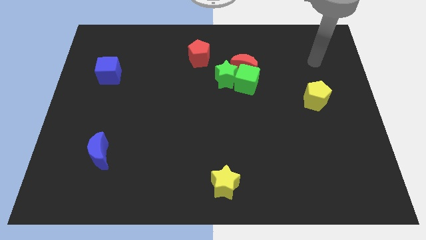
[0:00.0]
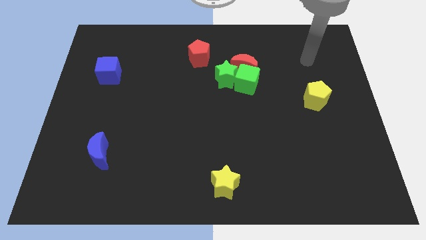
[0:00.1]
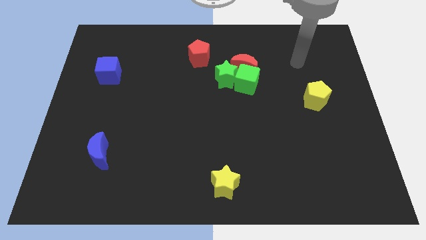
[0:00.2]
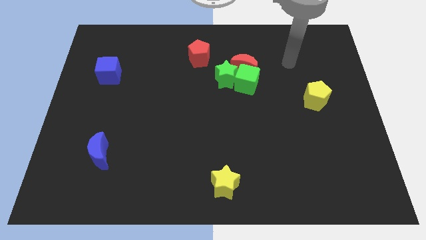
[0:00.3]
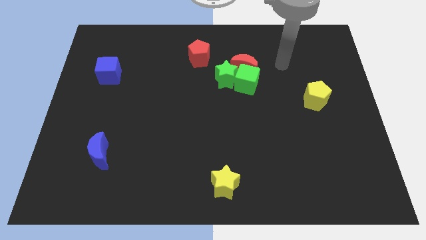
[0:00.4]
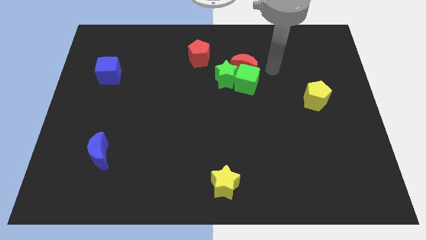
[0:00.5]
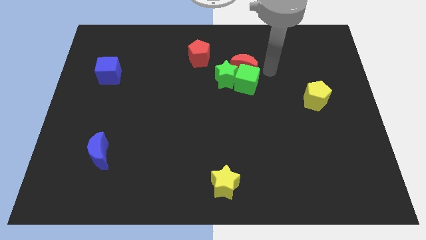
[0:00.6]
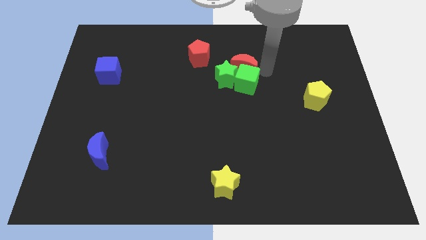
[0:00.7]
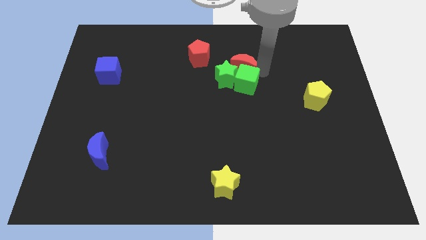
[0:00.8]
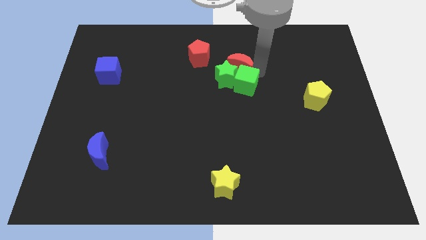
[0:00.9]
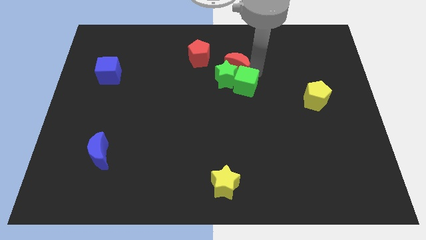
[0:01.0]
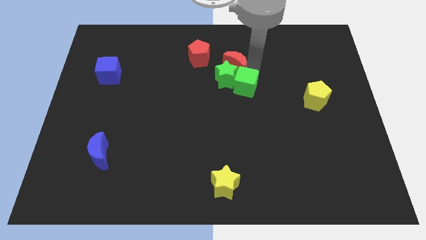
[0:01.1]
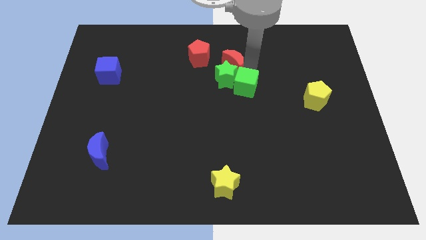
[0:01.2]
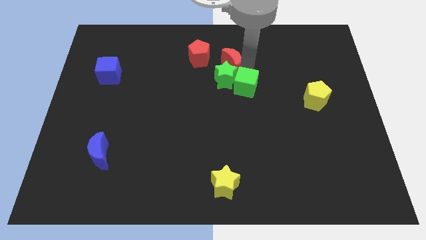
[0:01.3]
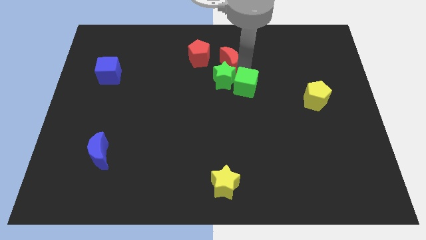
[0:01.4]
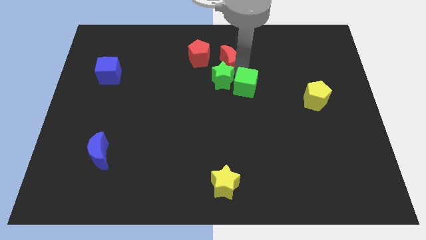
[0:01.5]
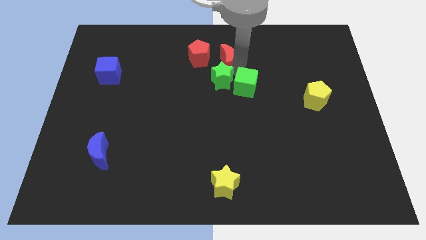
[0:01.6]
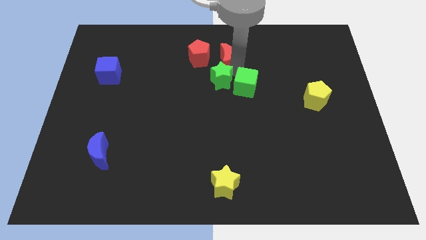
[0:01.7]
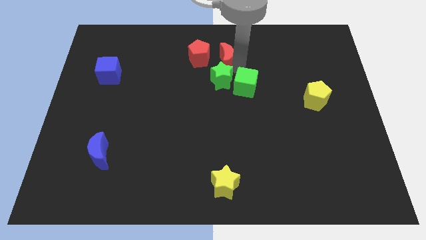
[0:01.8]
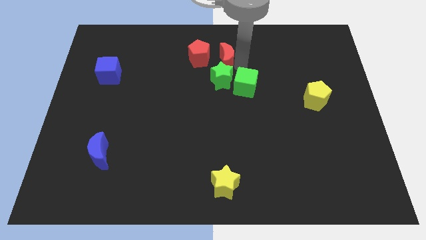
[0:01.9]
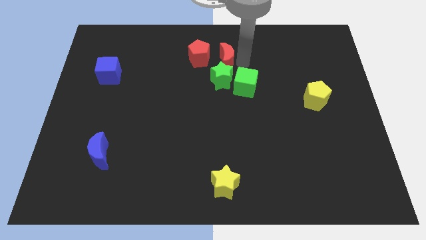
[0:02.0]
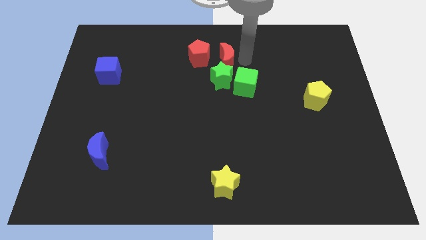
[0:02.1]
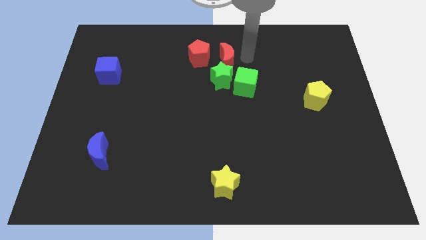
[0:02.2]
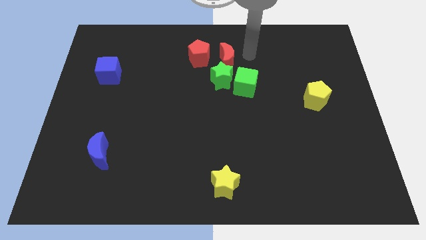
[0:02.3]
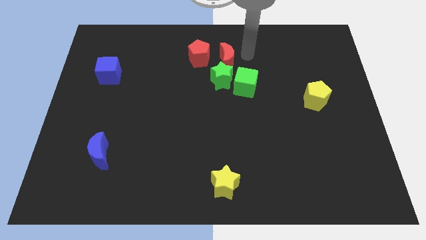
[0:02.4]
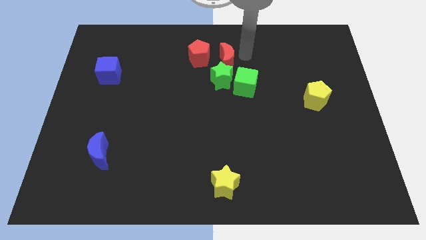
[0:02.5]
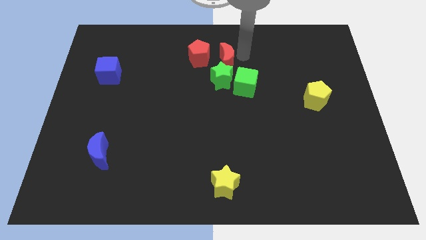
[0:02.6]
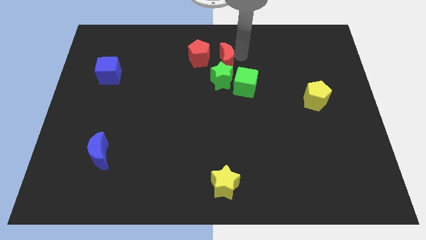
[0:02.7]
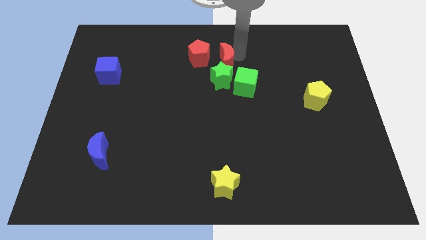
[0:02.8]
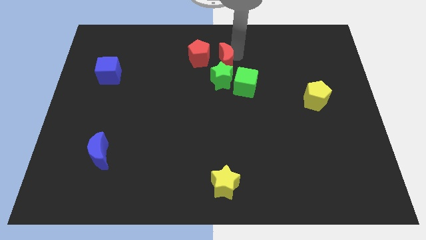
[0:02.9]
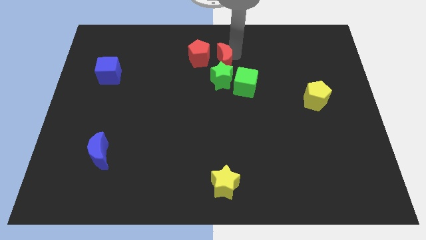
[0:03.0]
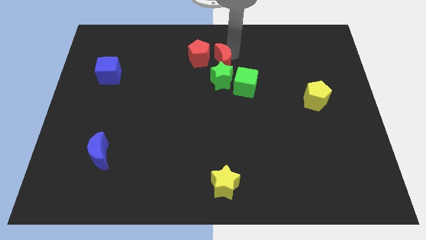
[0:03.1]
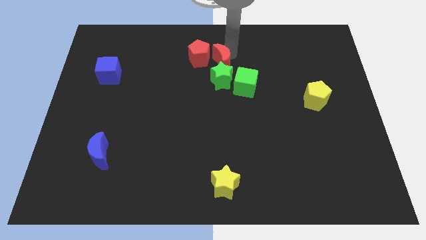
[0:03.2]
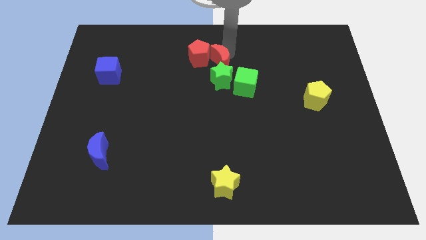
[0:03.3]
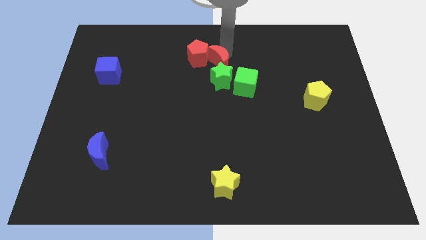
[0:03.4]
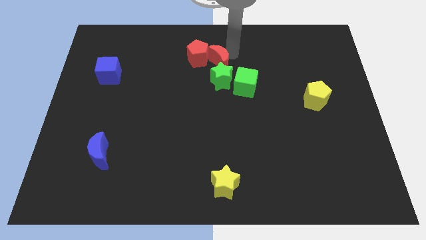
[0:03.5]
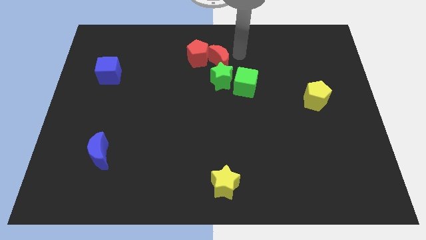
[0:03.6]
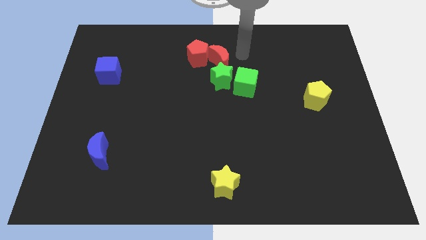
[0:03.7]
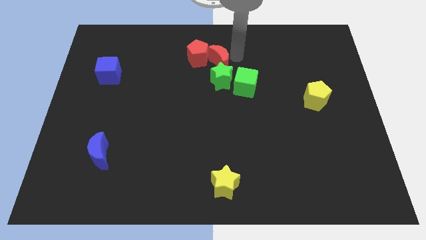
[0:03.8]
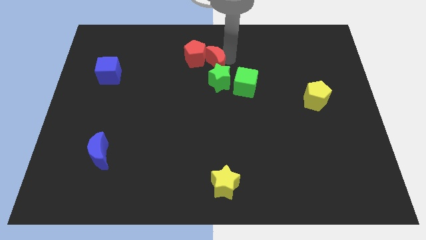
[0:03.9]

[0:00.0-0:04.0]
slightly slide the red moon left

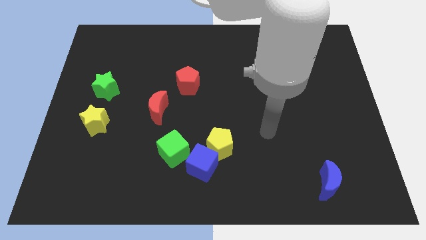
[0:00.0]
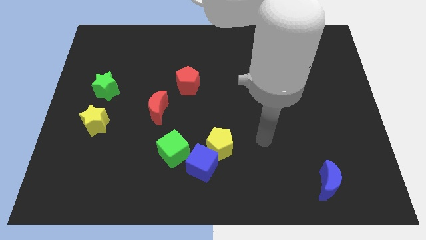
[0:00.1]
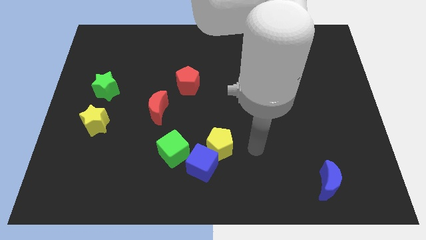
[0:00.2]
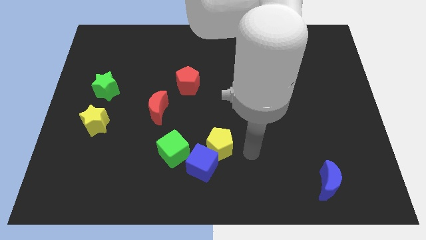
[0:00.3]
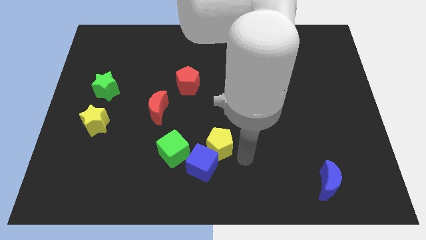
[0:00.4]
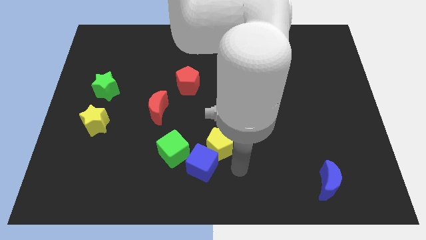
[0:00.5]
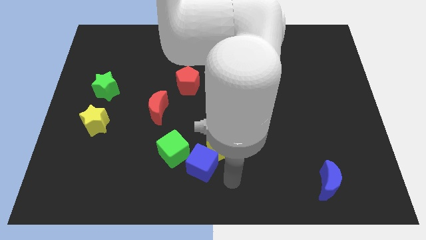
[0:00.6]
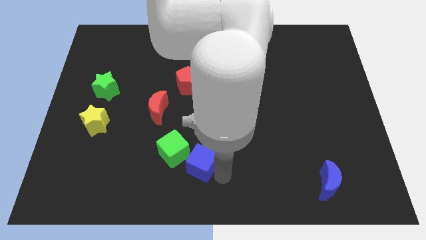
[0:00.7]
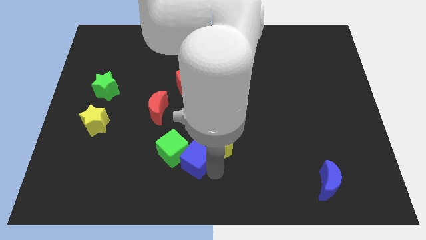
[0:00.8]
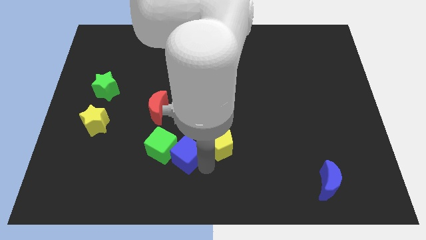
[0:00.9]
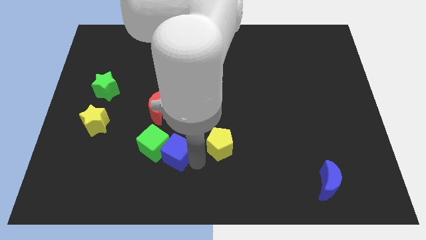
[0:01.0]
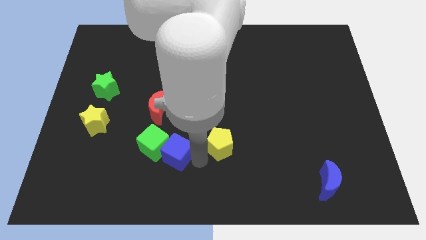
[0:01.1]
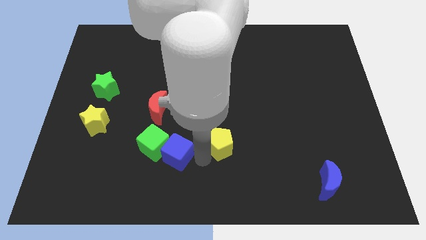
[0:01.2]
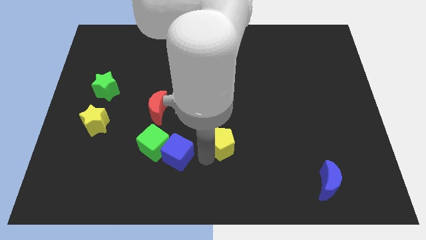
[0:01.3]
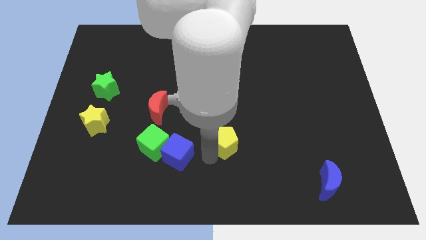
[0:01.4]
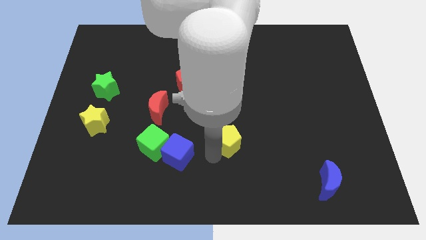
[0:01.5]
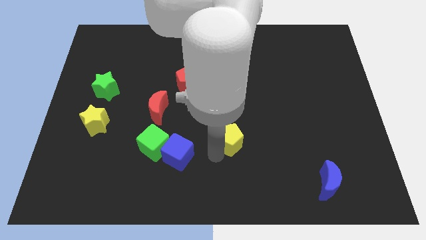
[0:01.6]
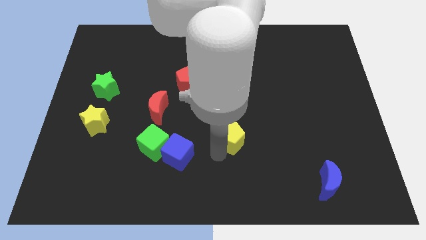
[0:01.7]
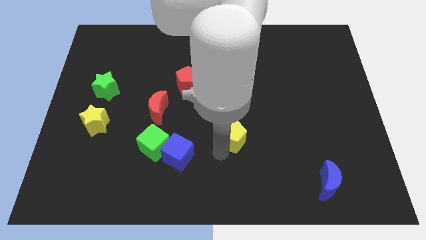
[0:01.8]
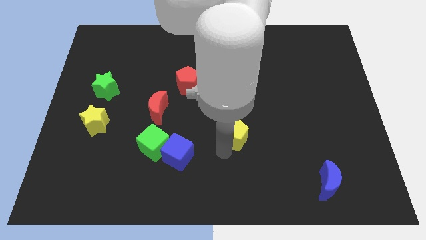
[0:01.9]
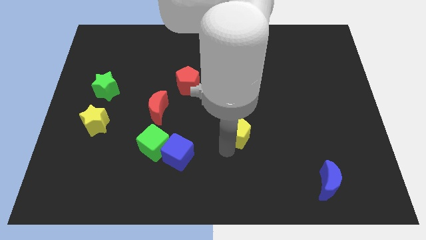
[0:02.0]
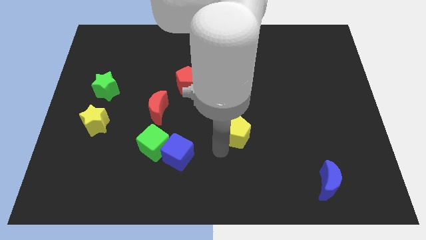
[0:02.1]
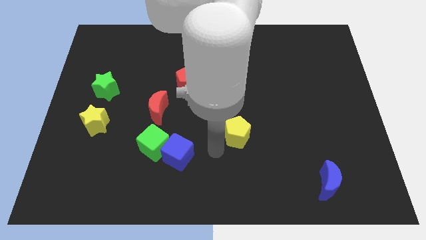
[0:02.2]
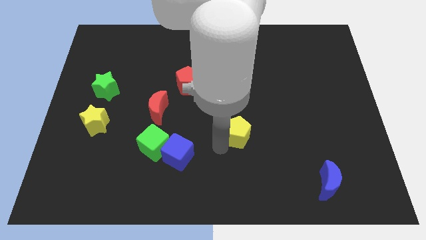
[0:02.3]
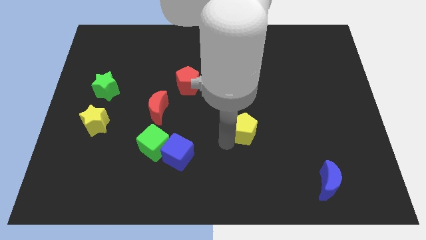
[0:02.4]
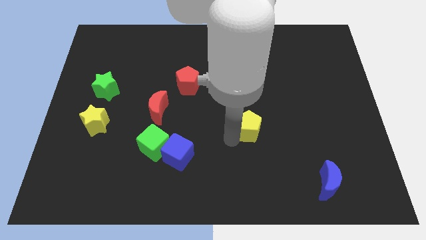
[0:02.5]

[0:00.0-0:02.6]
move the yellow pentagon diagonally up and to the right a little

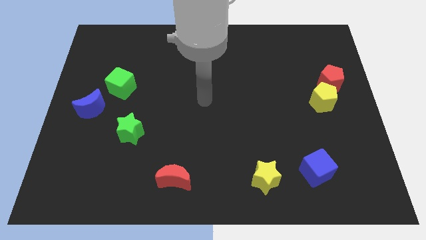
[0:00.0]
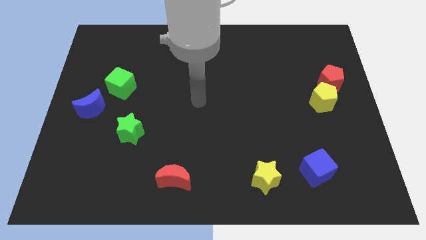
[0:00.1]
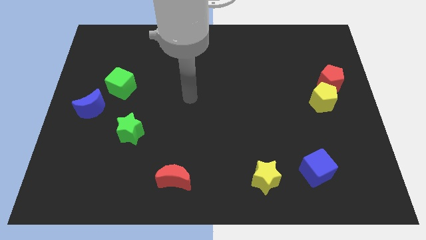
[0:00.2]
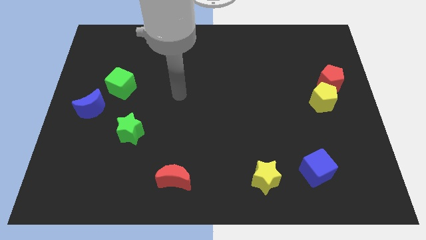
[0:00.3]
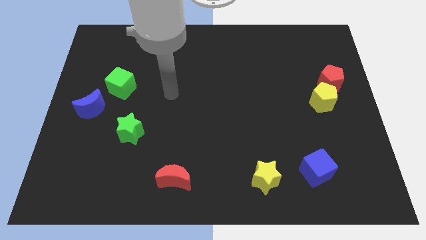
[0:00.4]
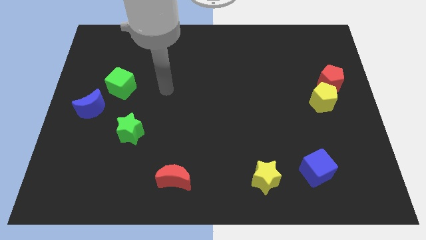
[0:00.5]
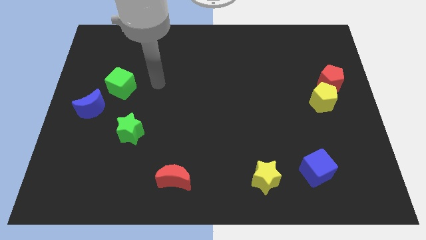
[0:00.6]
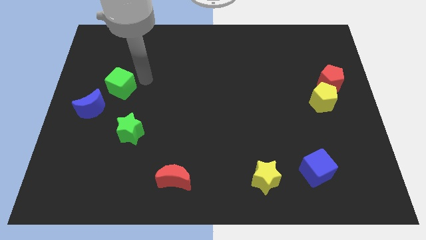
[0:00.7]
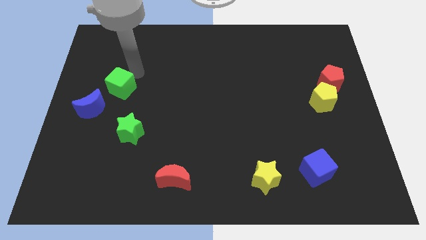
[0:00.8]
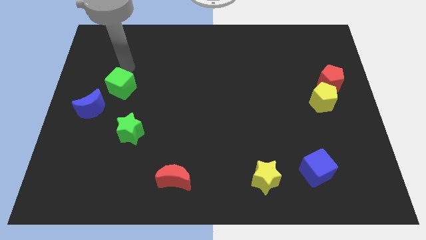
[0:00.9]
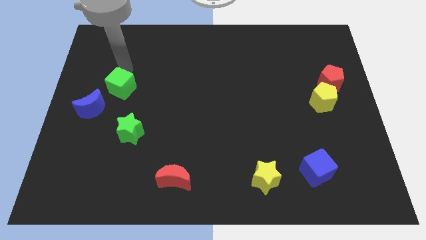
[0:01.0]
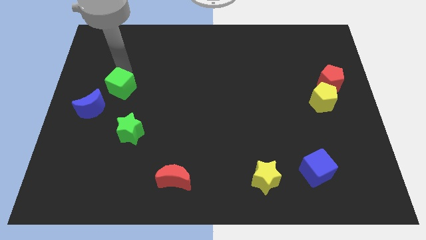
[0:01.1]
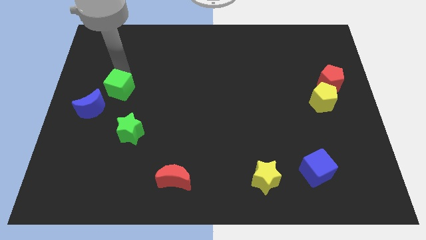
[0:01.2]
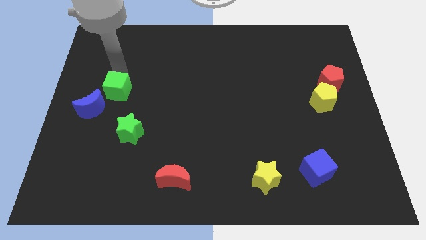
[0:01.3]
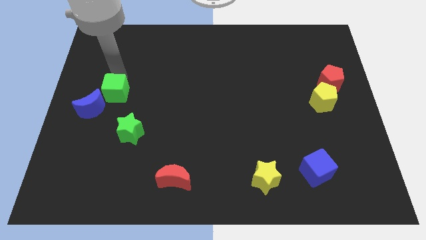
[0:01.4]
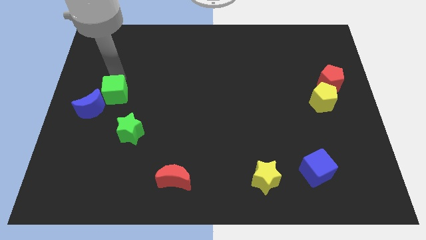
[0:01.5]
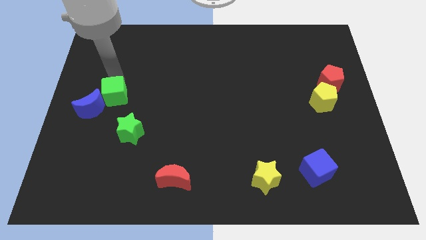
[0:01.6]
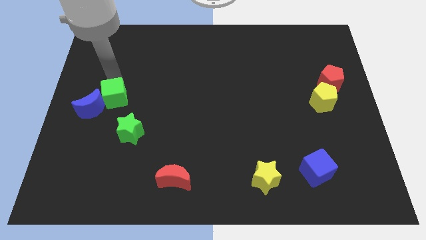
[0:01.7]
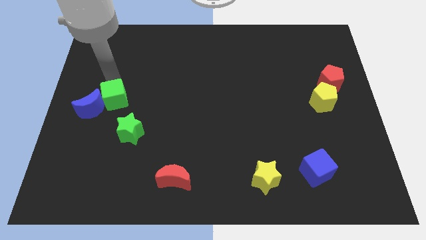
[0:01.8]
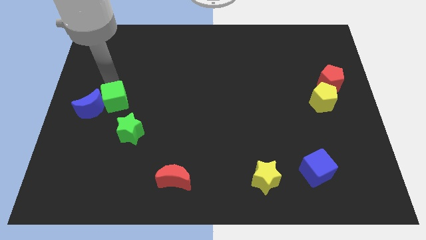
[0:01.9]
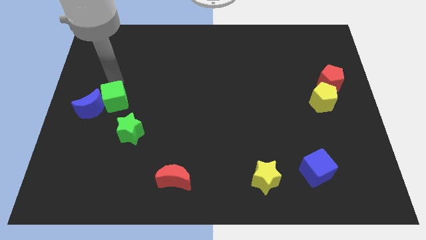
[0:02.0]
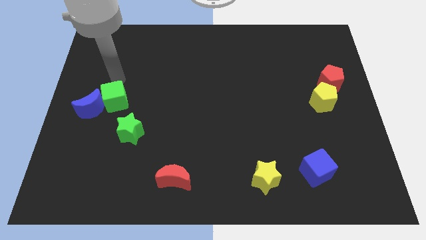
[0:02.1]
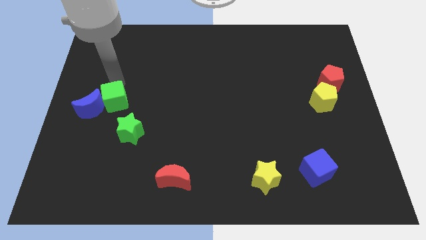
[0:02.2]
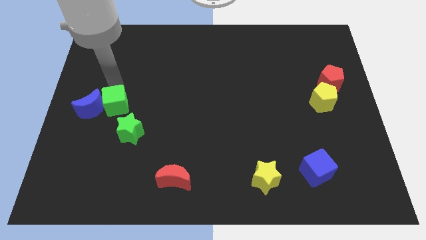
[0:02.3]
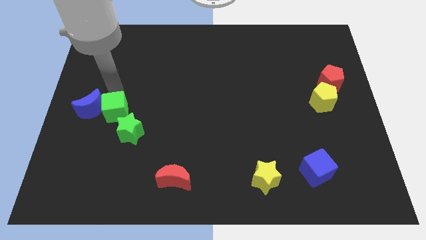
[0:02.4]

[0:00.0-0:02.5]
slightly move the green cube downwards
